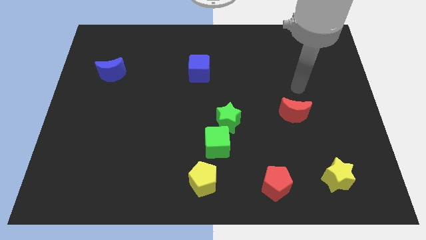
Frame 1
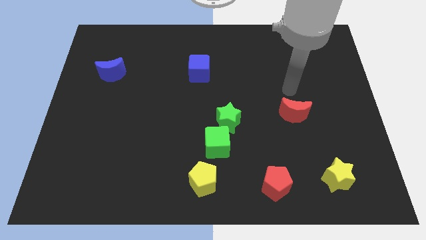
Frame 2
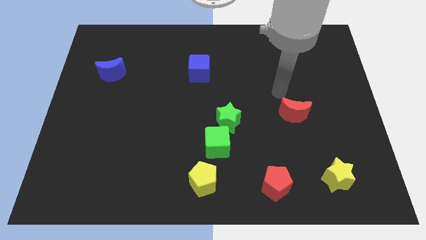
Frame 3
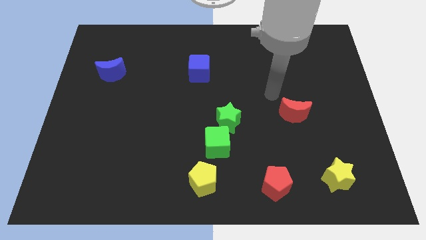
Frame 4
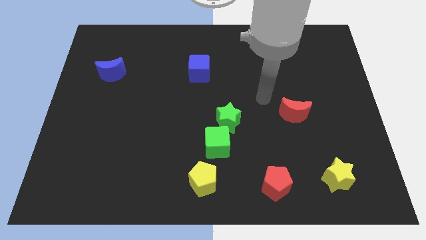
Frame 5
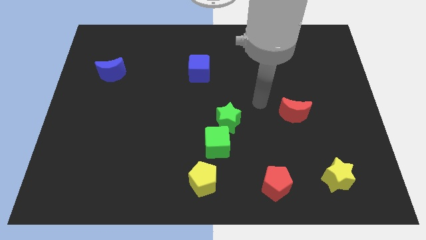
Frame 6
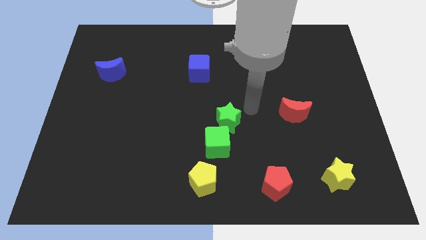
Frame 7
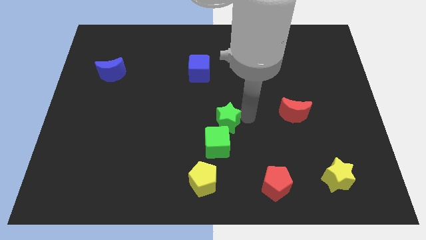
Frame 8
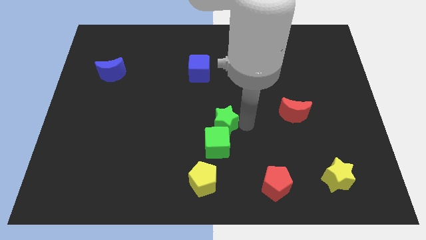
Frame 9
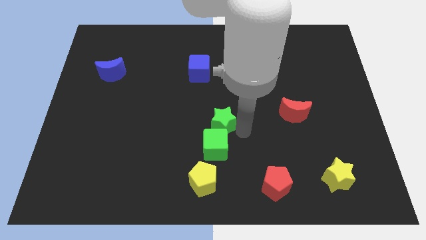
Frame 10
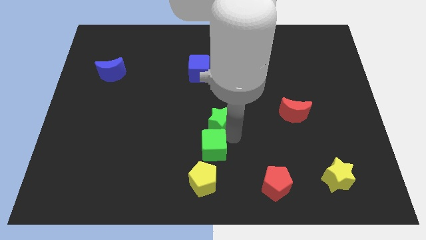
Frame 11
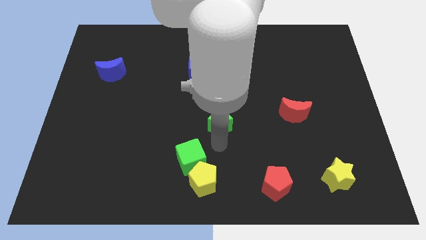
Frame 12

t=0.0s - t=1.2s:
separate the green star from the green cube

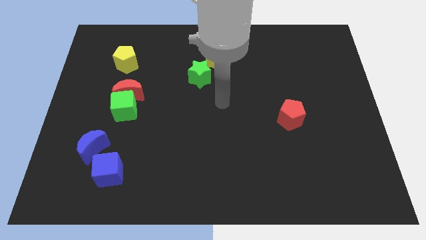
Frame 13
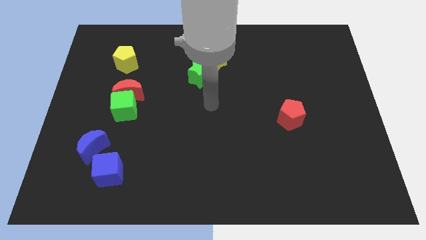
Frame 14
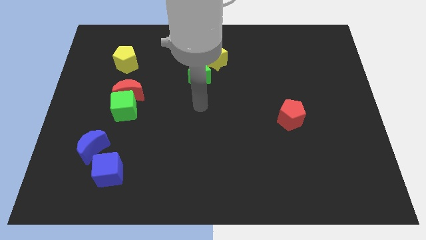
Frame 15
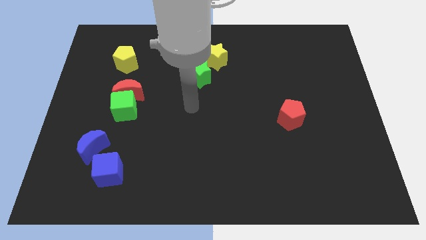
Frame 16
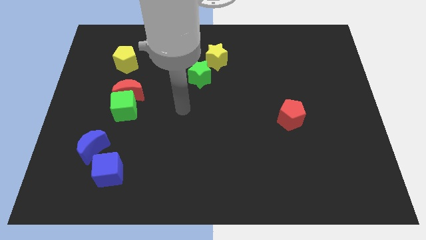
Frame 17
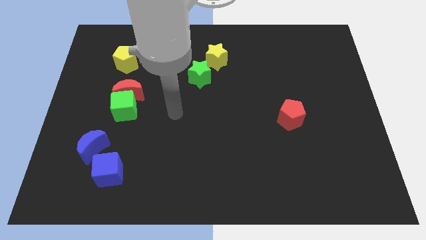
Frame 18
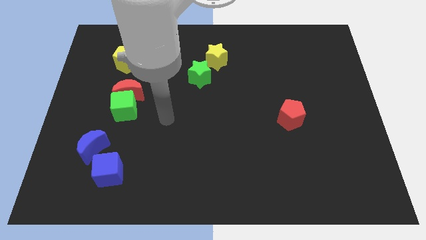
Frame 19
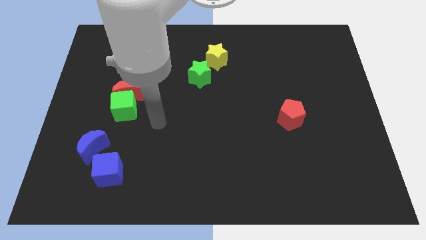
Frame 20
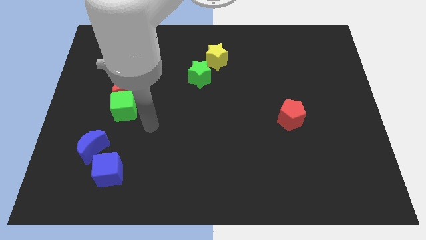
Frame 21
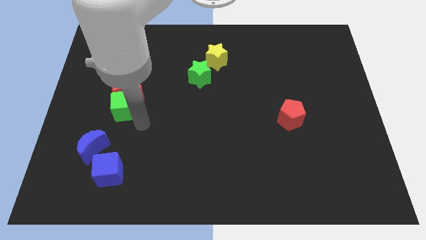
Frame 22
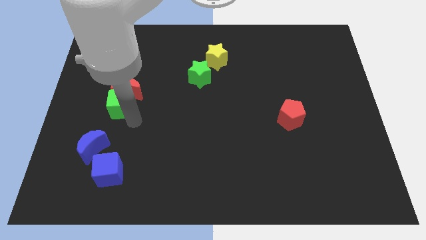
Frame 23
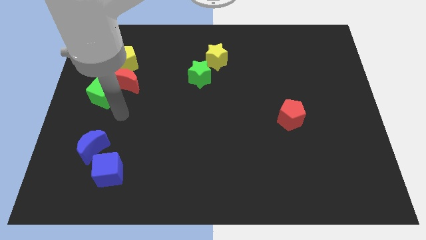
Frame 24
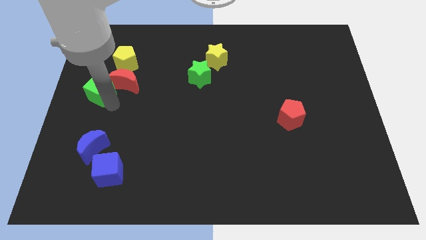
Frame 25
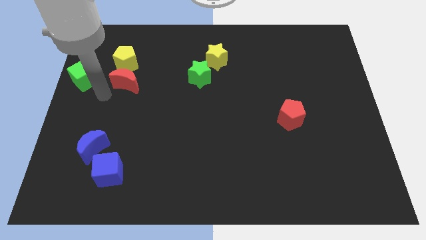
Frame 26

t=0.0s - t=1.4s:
separate the red moon from the green cube

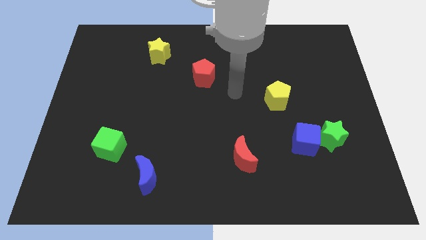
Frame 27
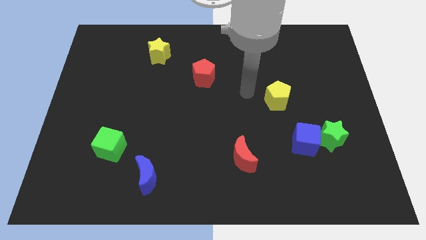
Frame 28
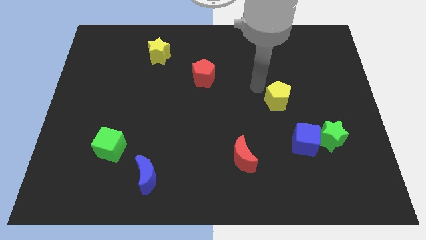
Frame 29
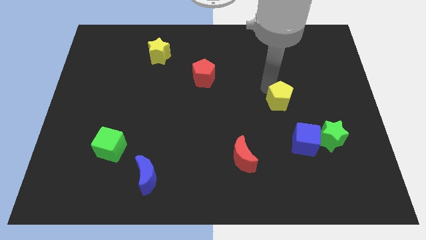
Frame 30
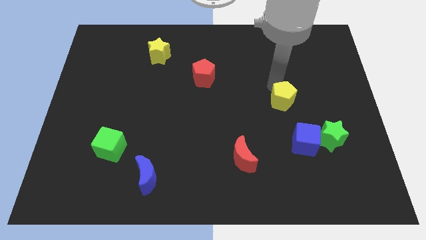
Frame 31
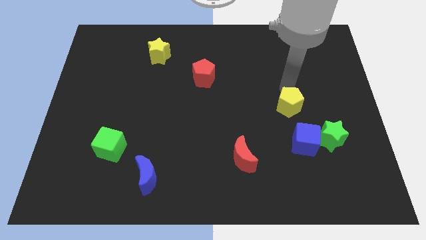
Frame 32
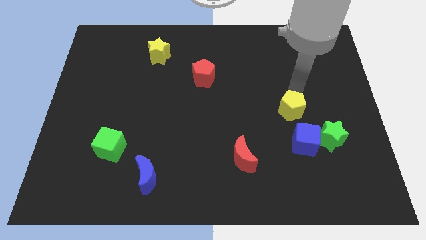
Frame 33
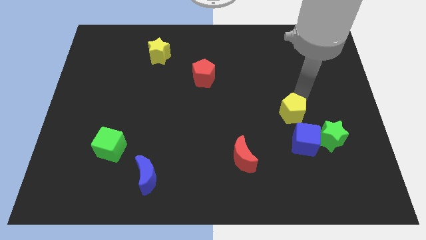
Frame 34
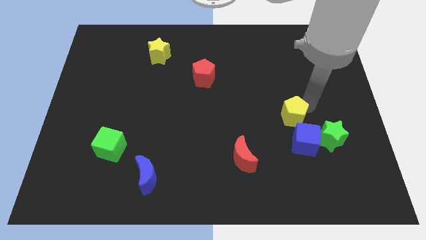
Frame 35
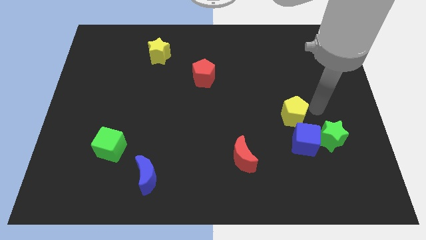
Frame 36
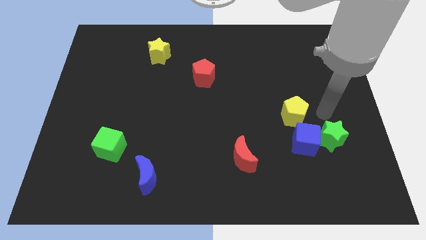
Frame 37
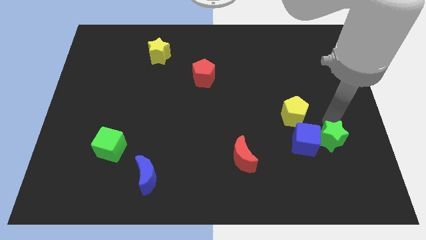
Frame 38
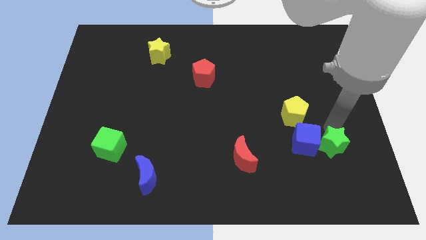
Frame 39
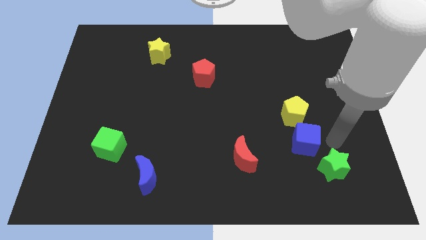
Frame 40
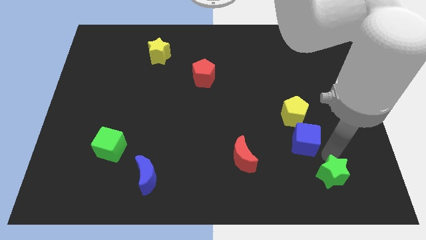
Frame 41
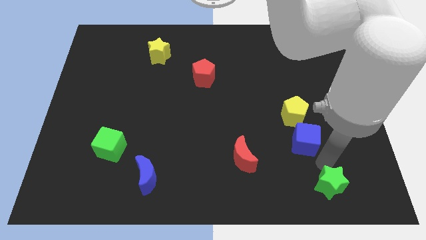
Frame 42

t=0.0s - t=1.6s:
move the blue cube away from the green star

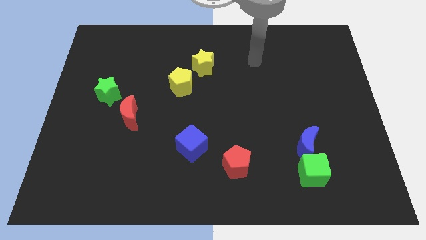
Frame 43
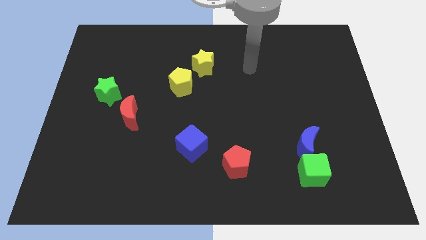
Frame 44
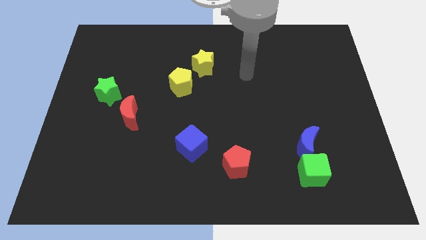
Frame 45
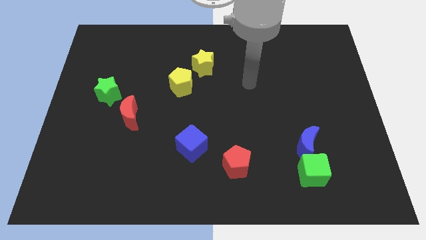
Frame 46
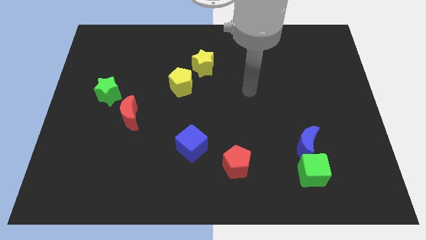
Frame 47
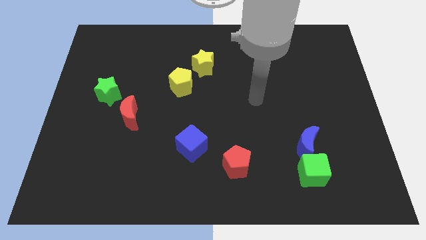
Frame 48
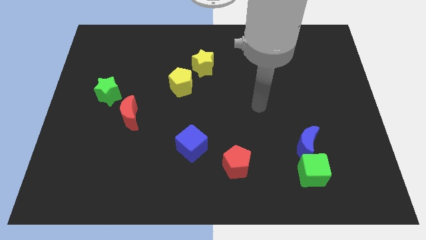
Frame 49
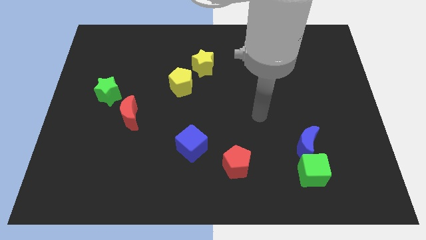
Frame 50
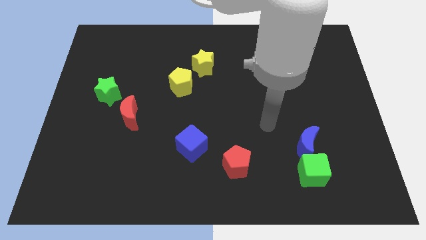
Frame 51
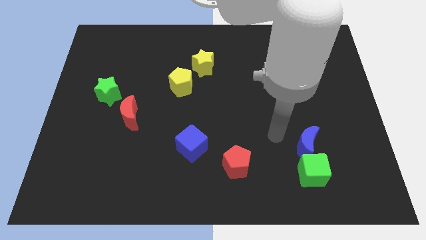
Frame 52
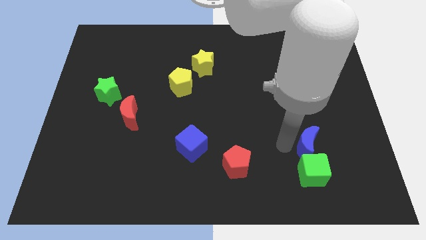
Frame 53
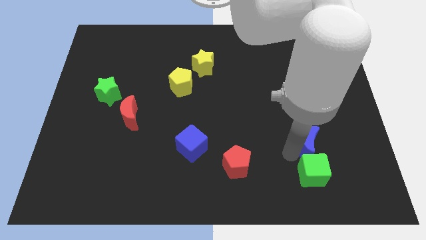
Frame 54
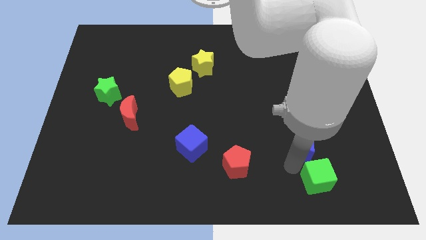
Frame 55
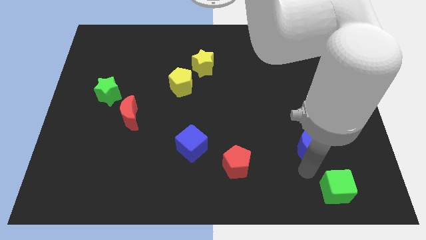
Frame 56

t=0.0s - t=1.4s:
separate the blue moon from the green cube

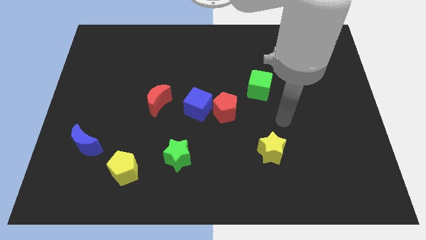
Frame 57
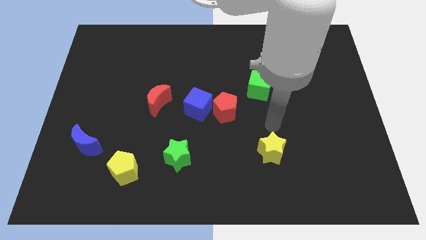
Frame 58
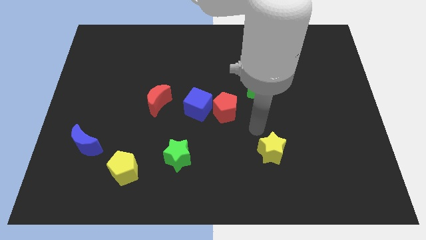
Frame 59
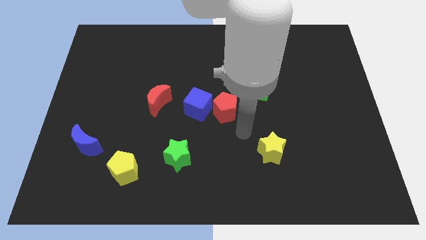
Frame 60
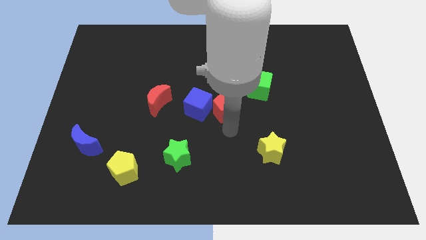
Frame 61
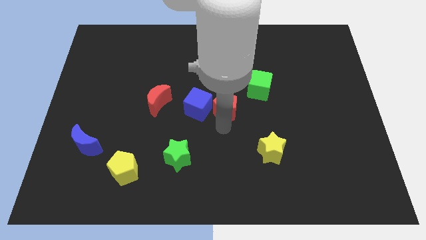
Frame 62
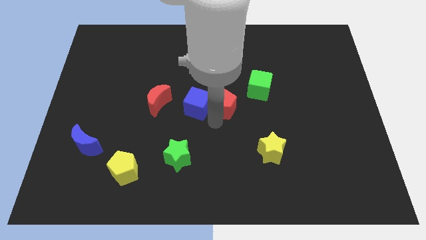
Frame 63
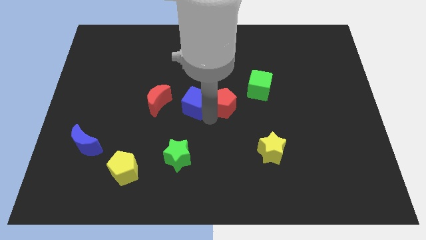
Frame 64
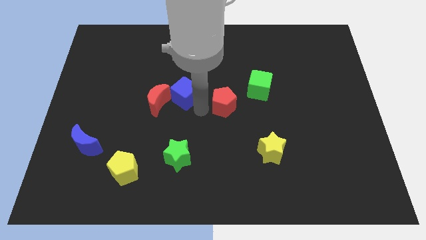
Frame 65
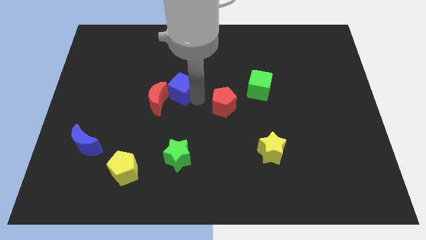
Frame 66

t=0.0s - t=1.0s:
separate the red pentagon from the blue cube

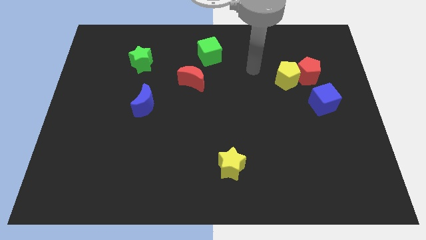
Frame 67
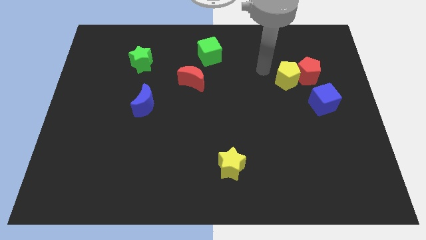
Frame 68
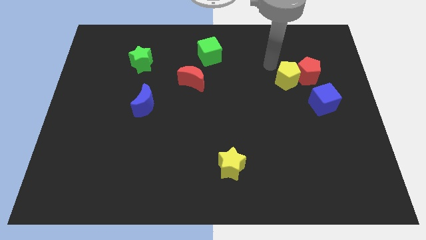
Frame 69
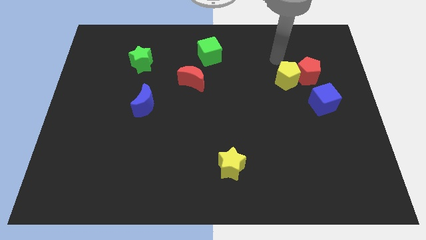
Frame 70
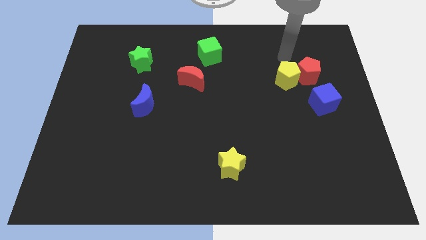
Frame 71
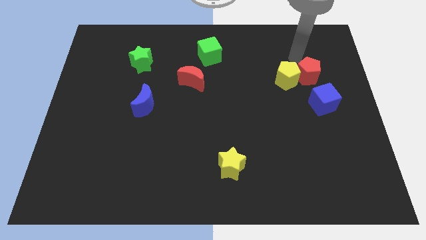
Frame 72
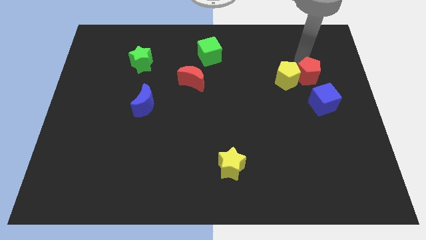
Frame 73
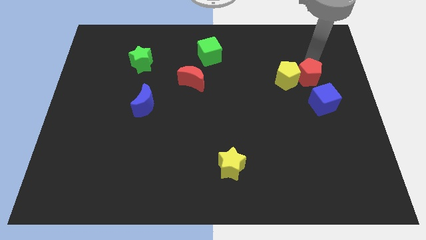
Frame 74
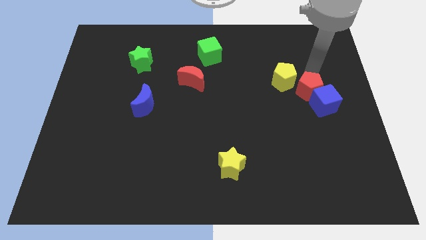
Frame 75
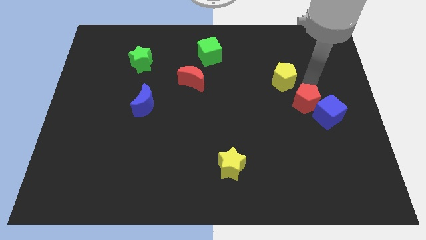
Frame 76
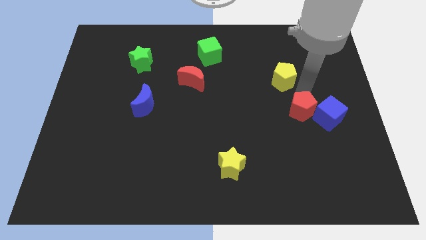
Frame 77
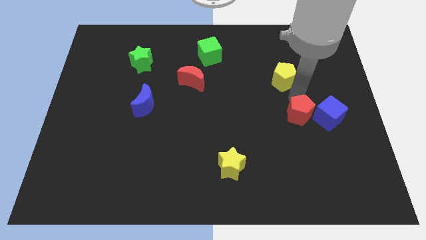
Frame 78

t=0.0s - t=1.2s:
pull the yellow pentagon apart from the red pentagon

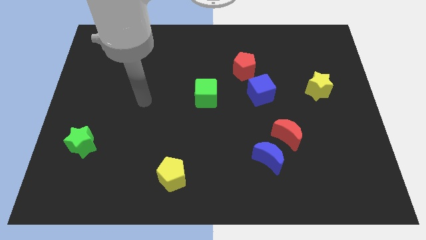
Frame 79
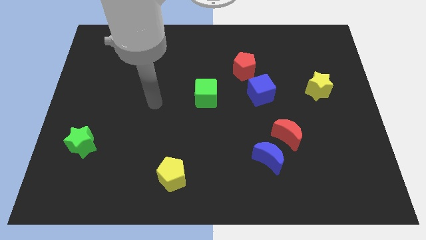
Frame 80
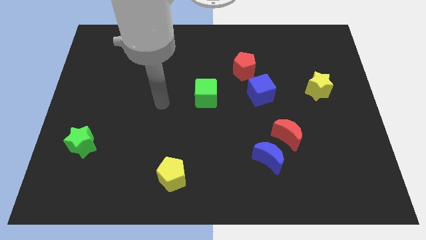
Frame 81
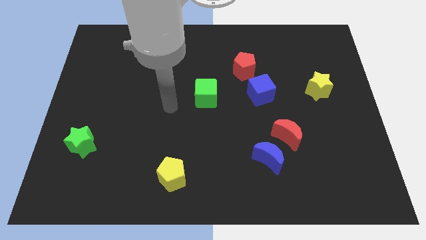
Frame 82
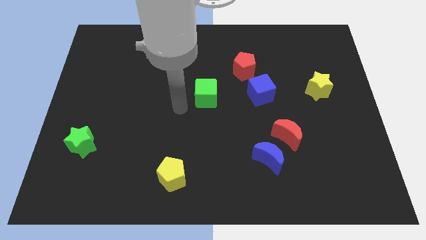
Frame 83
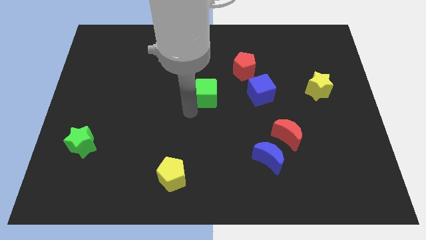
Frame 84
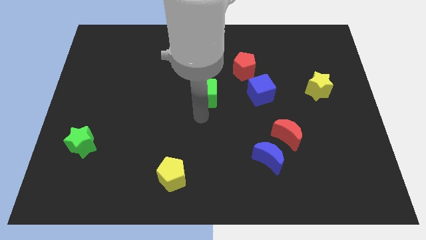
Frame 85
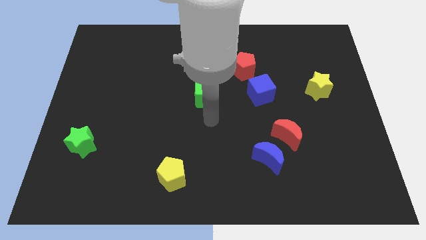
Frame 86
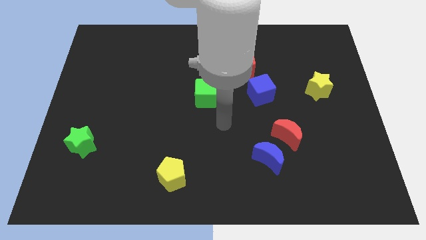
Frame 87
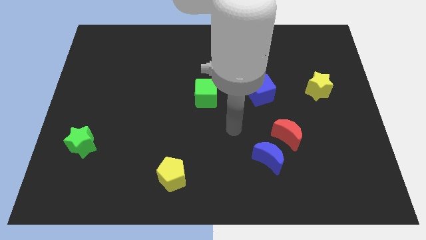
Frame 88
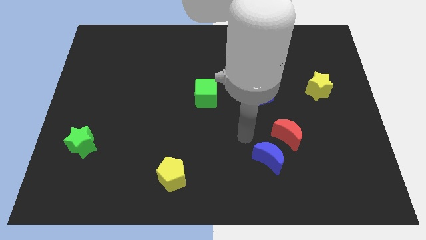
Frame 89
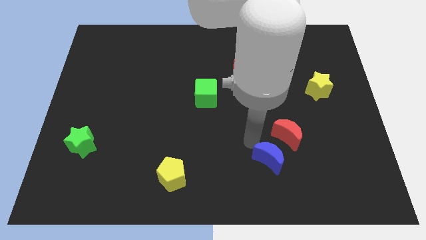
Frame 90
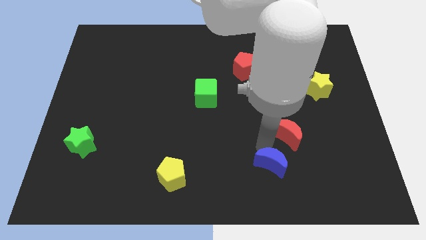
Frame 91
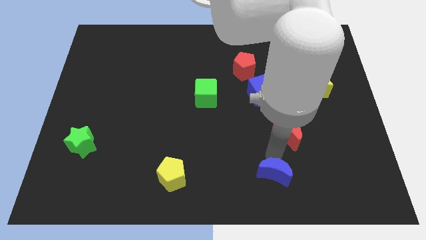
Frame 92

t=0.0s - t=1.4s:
pull the red moon apart from the blue moon
